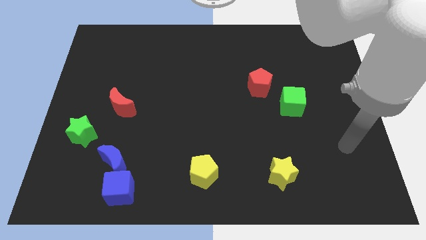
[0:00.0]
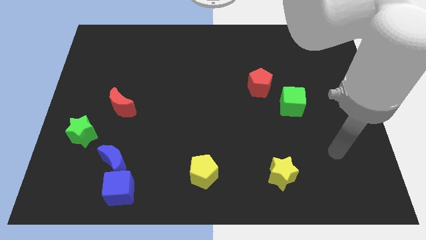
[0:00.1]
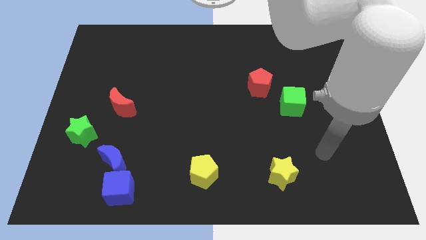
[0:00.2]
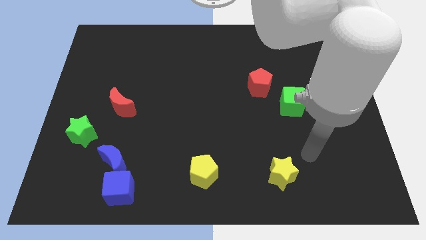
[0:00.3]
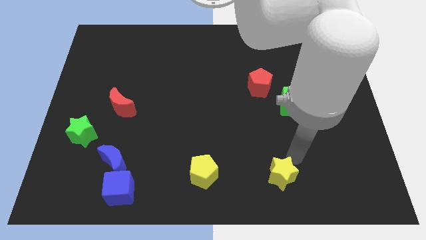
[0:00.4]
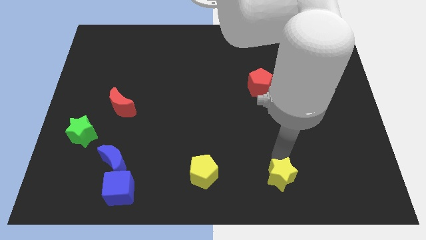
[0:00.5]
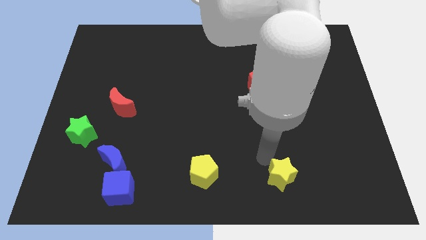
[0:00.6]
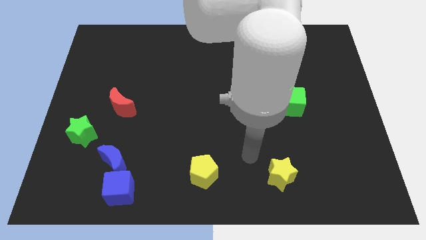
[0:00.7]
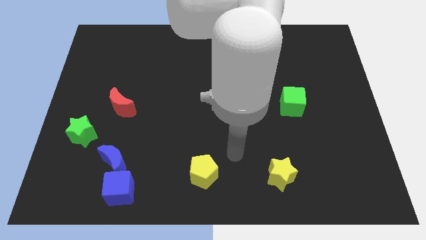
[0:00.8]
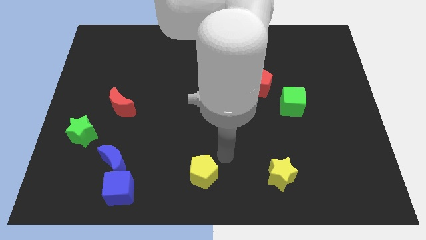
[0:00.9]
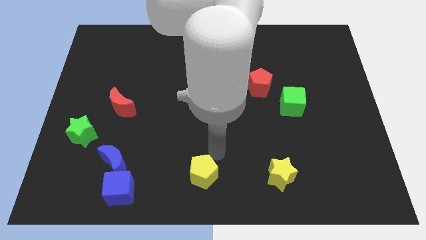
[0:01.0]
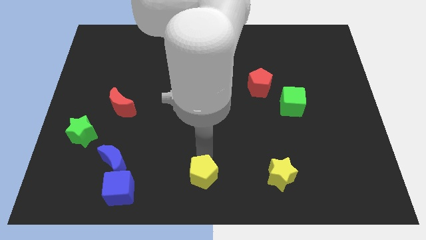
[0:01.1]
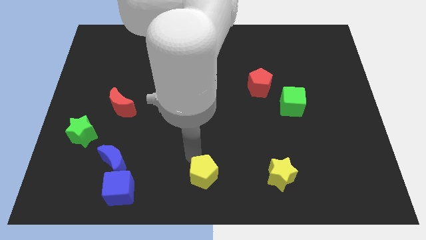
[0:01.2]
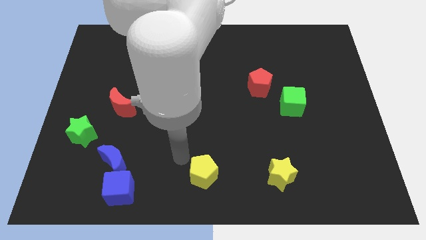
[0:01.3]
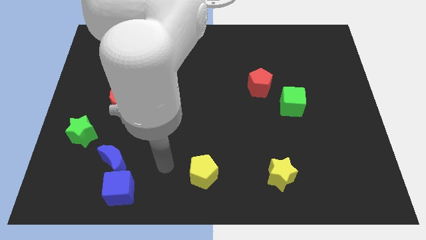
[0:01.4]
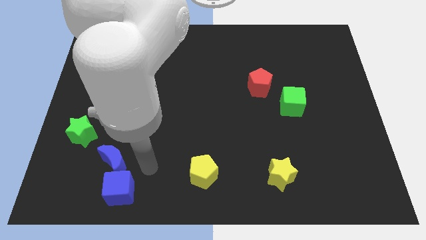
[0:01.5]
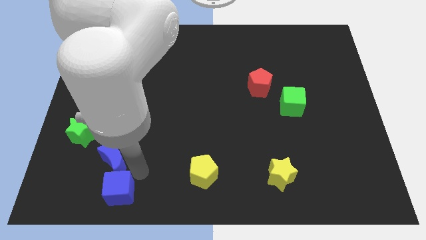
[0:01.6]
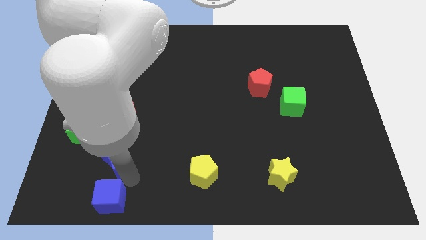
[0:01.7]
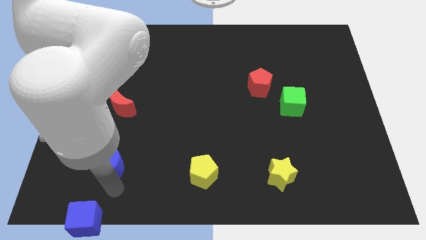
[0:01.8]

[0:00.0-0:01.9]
separate the blue moon from the blue cube

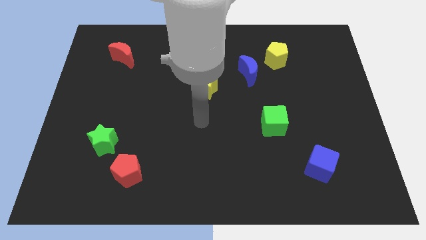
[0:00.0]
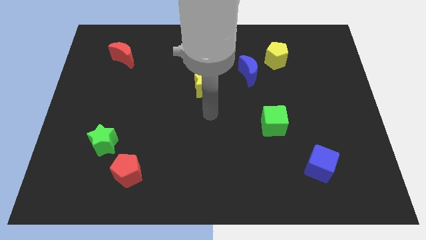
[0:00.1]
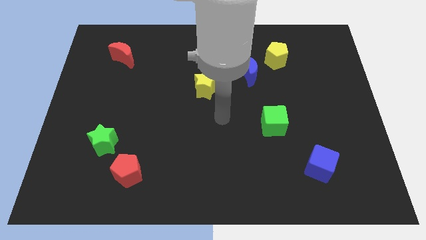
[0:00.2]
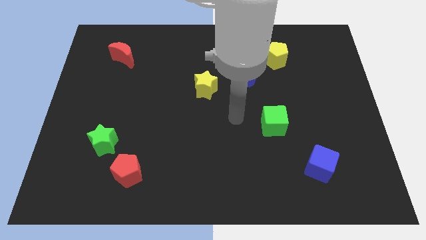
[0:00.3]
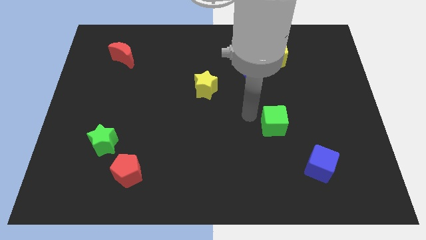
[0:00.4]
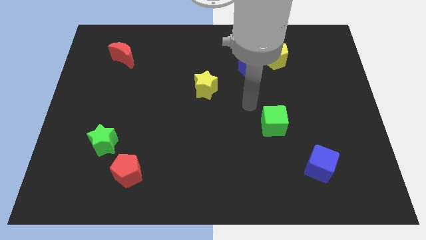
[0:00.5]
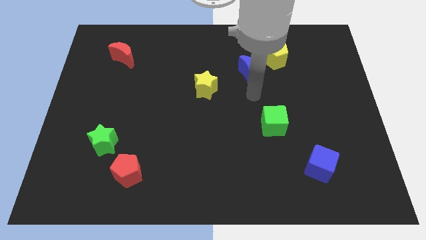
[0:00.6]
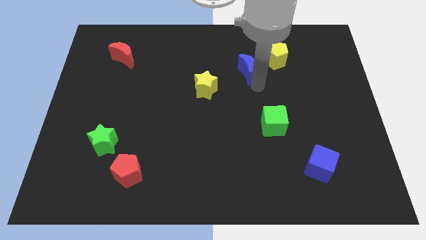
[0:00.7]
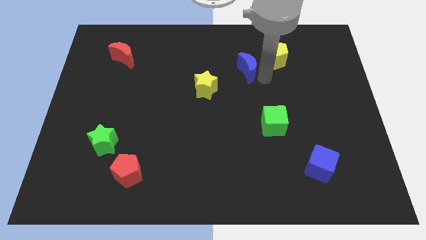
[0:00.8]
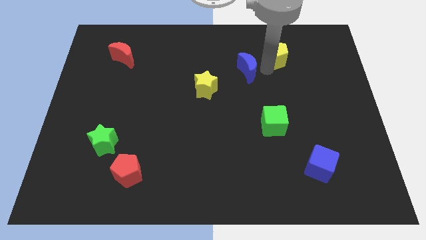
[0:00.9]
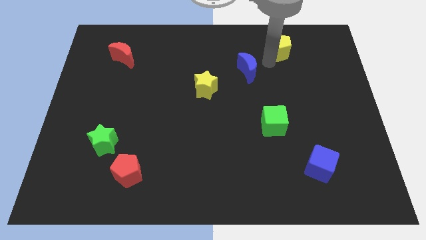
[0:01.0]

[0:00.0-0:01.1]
separate the blue moon from the yellow pentagon

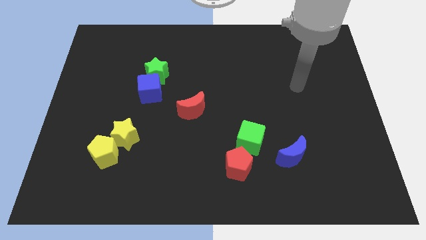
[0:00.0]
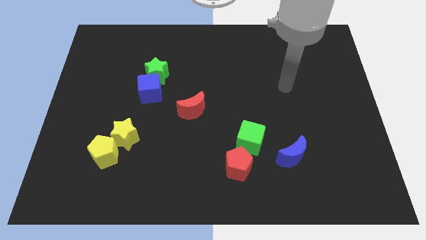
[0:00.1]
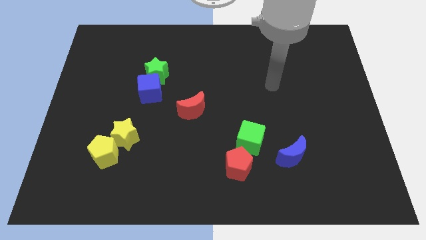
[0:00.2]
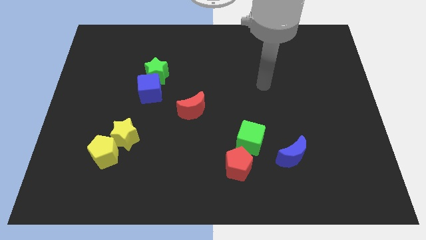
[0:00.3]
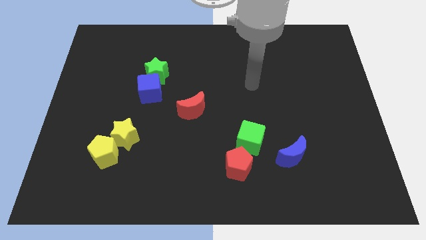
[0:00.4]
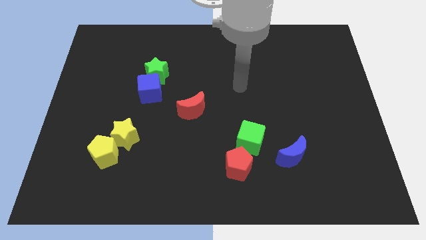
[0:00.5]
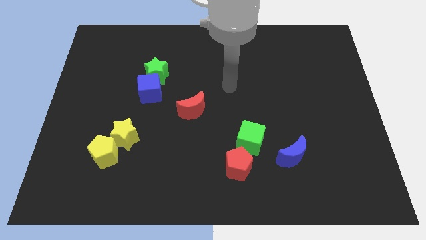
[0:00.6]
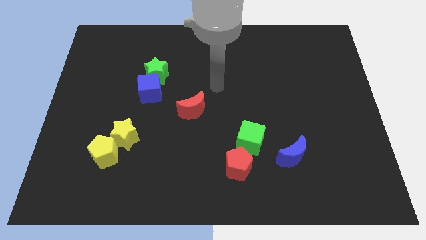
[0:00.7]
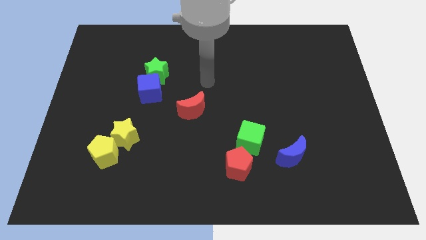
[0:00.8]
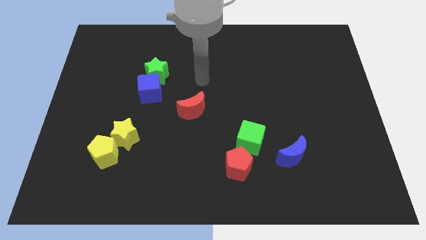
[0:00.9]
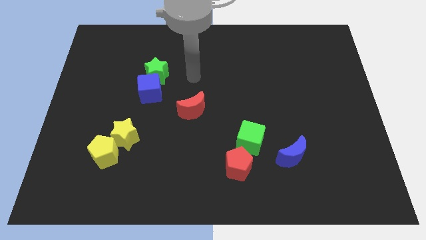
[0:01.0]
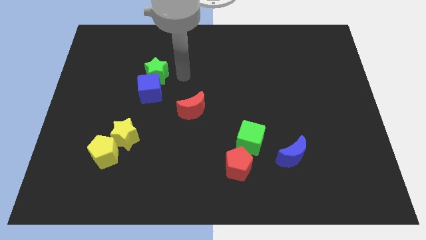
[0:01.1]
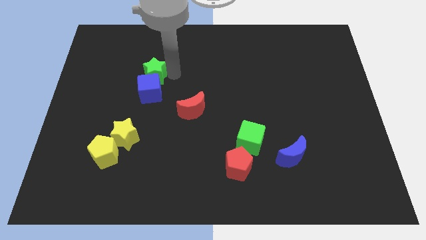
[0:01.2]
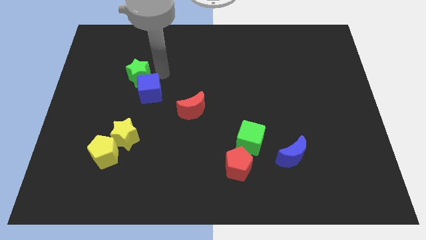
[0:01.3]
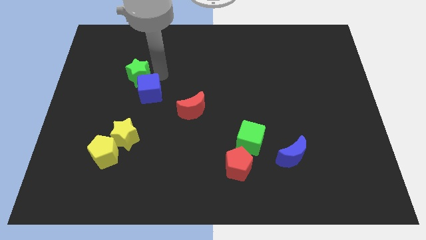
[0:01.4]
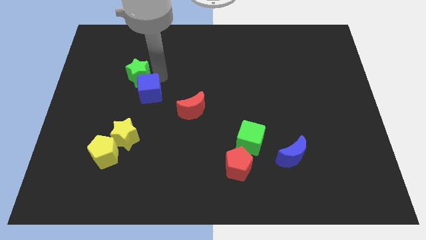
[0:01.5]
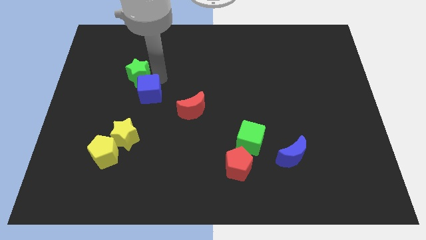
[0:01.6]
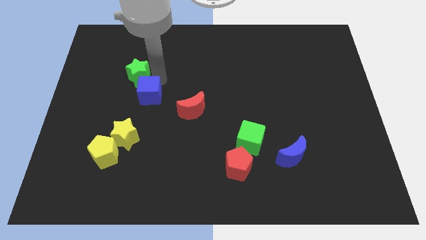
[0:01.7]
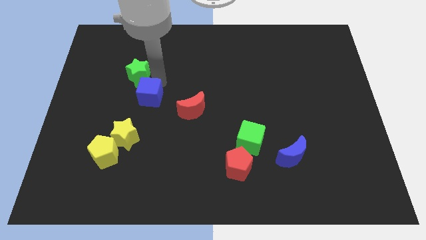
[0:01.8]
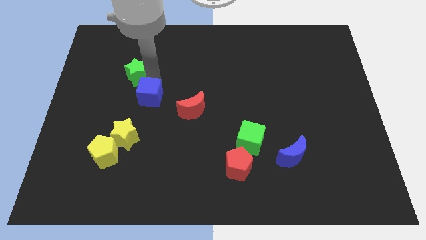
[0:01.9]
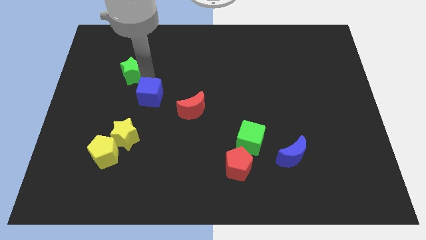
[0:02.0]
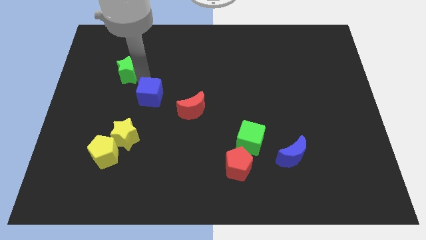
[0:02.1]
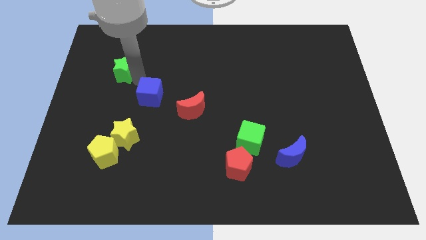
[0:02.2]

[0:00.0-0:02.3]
move the blue cube away from the green star

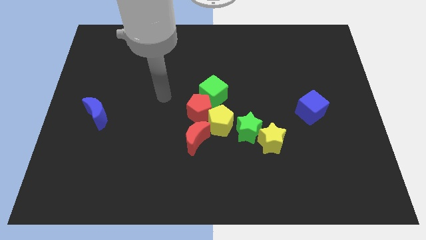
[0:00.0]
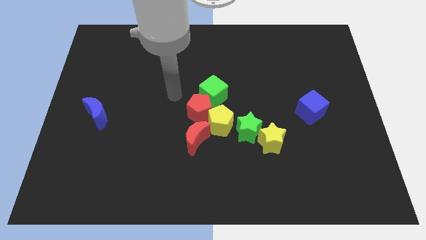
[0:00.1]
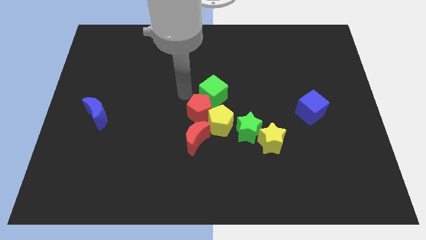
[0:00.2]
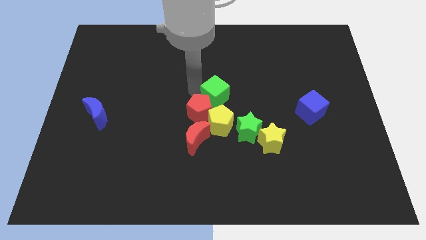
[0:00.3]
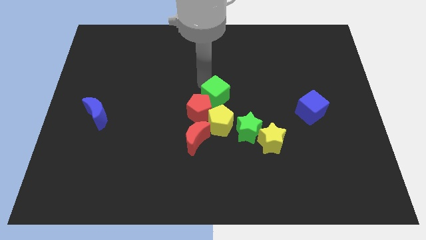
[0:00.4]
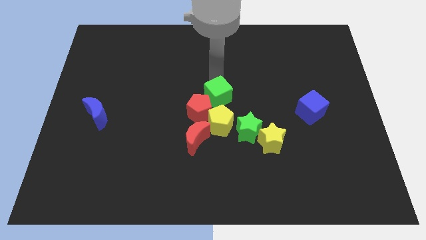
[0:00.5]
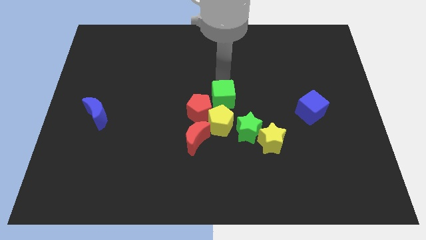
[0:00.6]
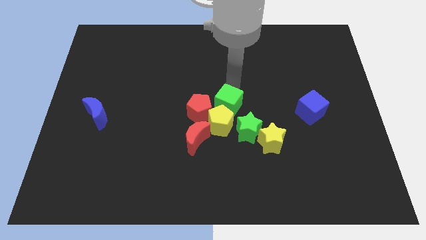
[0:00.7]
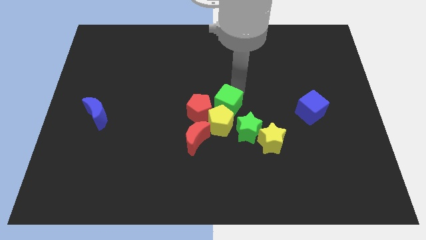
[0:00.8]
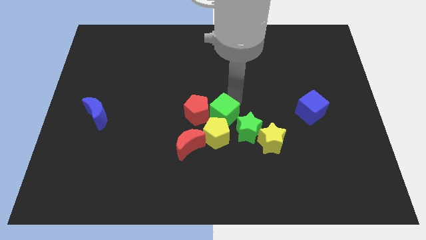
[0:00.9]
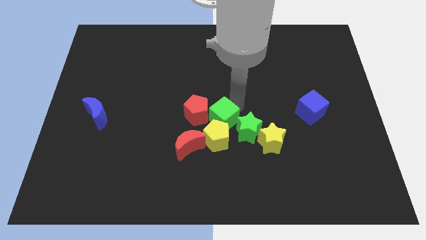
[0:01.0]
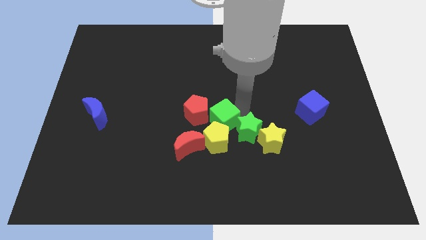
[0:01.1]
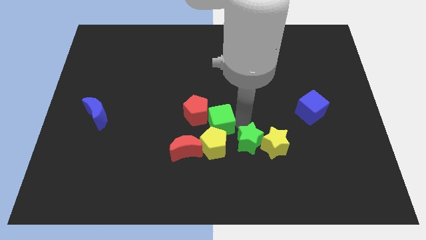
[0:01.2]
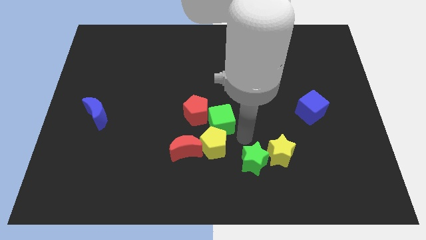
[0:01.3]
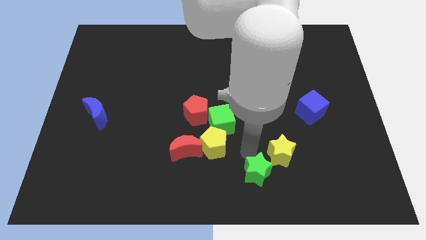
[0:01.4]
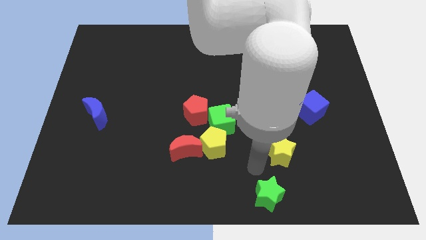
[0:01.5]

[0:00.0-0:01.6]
pull the yellow star apart from the green star

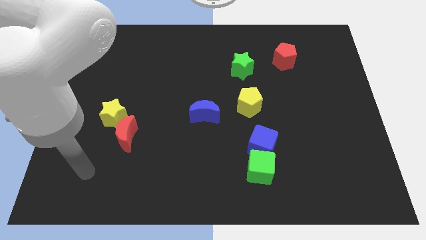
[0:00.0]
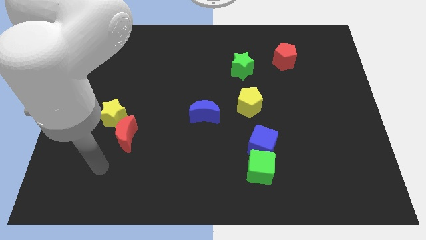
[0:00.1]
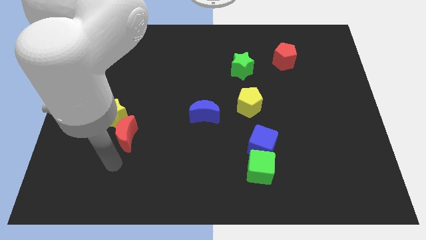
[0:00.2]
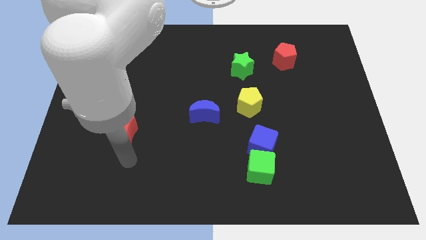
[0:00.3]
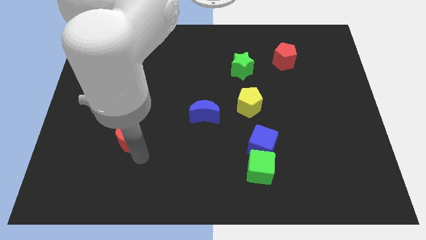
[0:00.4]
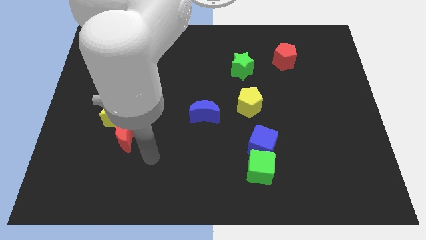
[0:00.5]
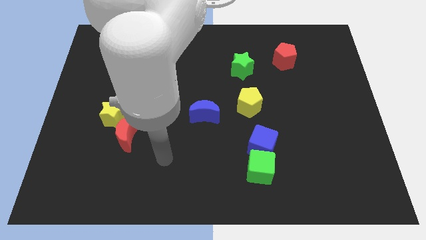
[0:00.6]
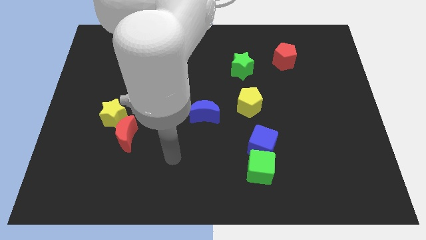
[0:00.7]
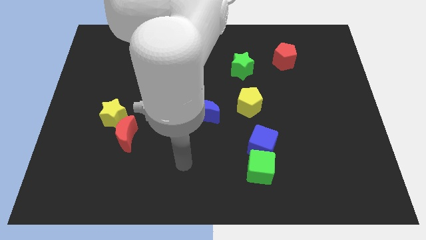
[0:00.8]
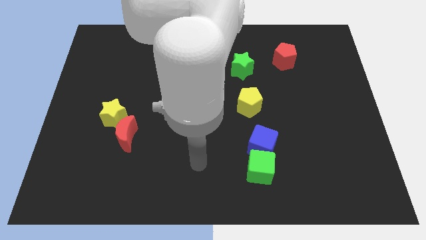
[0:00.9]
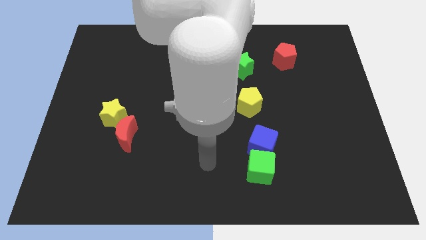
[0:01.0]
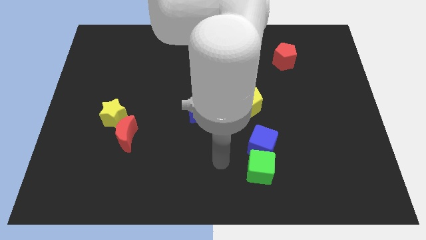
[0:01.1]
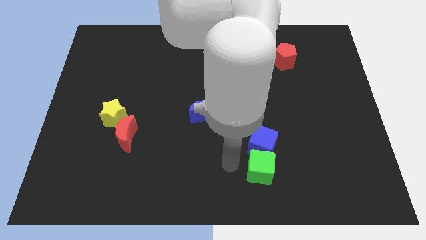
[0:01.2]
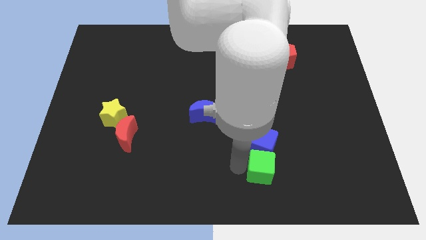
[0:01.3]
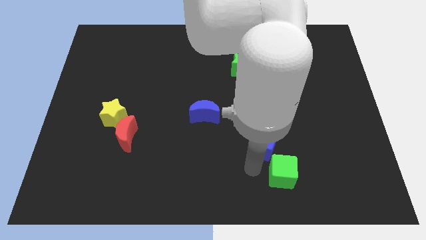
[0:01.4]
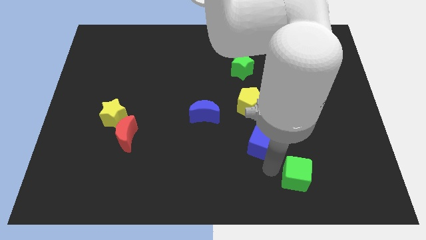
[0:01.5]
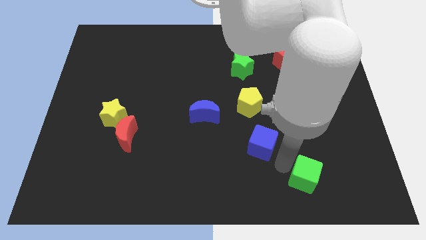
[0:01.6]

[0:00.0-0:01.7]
pull the blue cube apart from the green cube

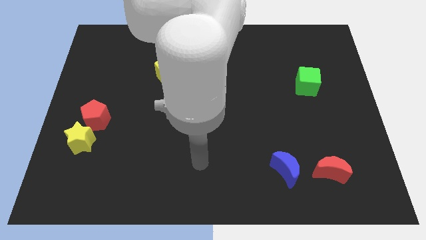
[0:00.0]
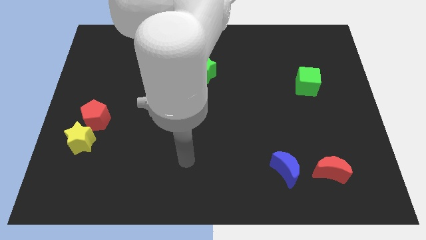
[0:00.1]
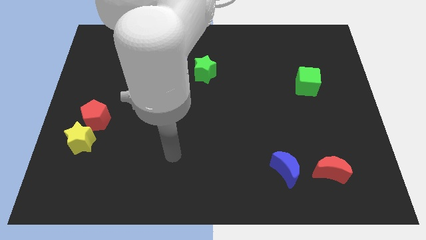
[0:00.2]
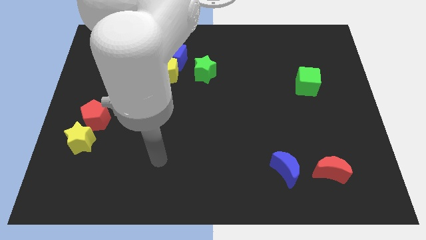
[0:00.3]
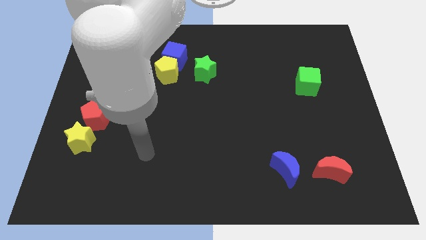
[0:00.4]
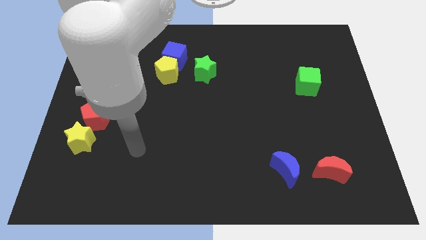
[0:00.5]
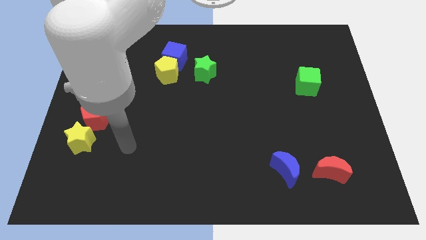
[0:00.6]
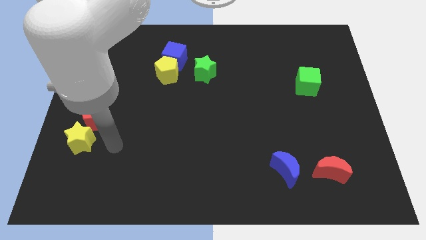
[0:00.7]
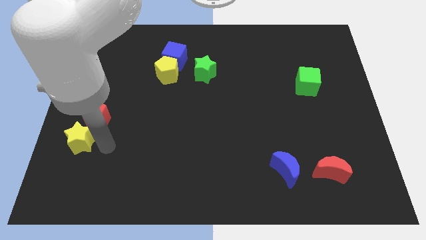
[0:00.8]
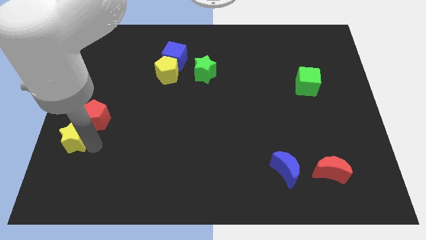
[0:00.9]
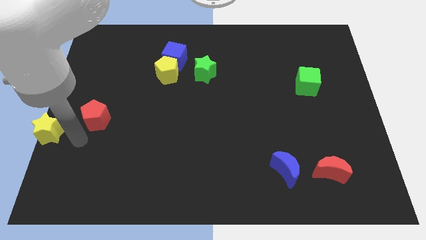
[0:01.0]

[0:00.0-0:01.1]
separate the red pentagon from the yellow star
